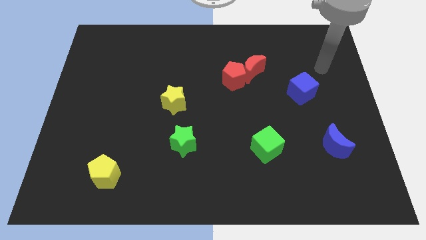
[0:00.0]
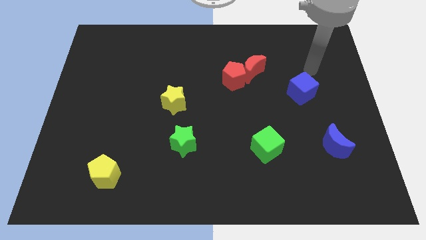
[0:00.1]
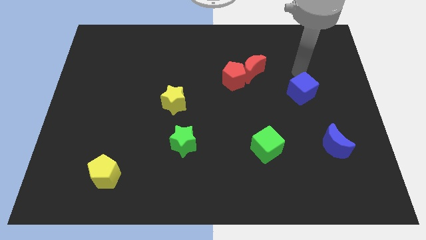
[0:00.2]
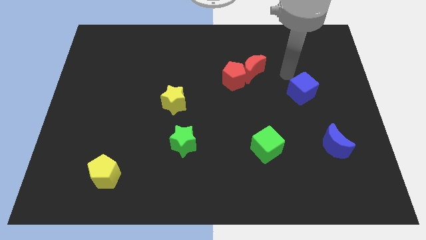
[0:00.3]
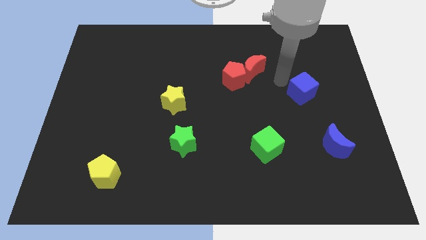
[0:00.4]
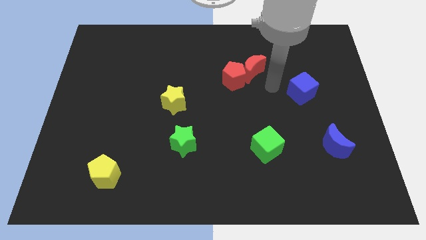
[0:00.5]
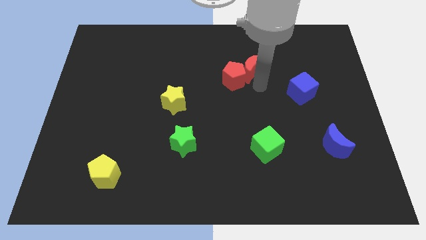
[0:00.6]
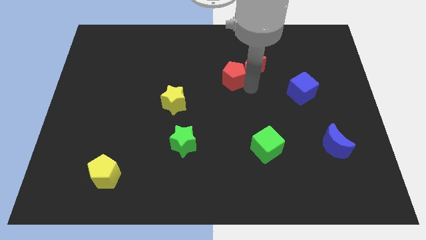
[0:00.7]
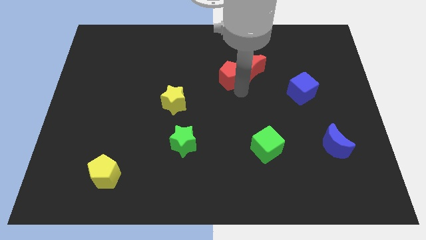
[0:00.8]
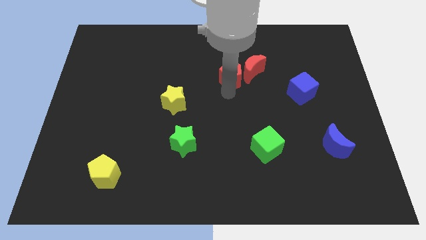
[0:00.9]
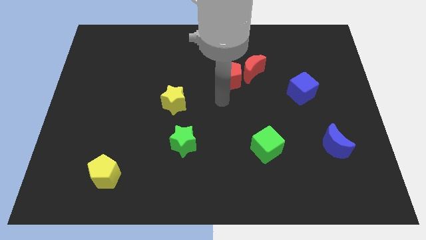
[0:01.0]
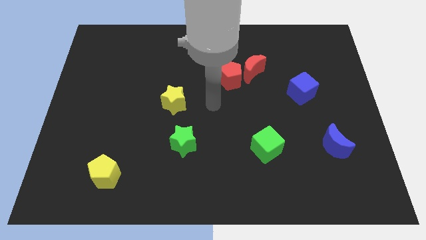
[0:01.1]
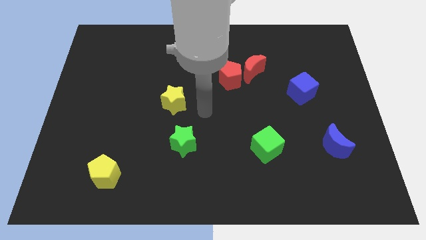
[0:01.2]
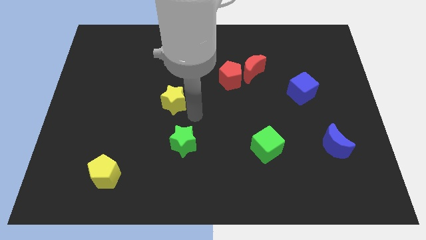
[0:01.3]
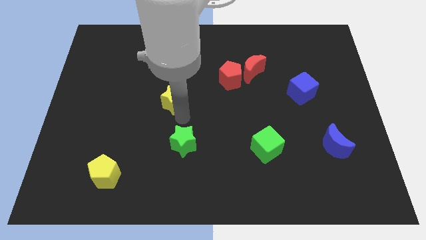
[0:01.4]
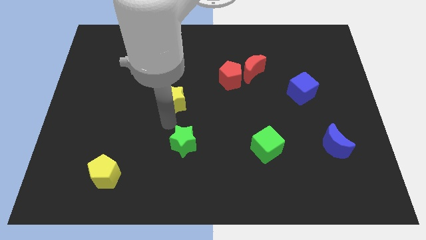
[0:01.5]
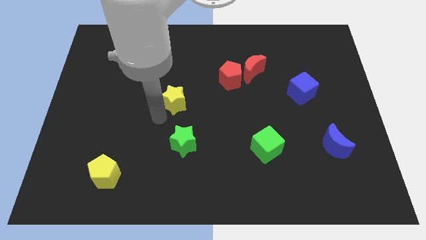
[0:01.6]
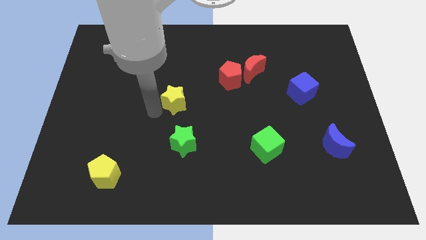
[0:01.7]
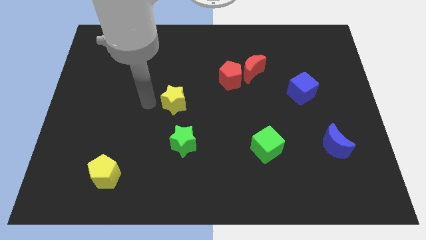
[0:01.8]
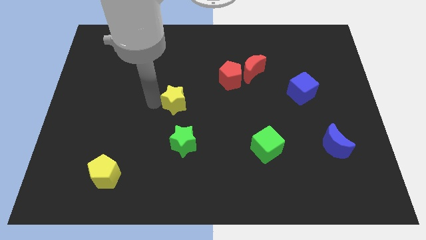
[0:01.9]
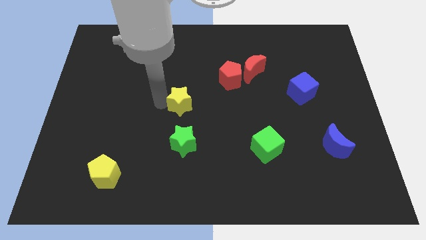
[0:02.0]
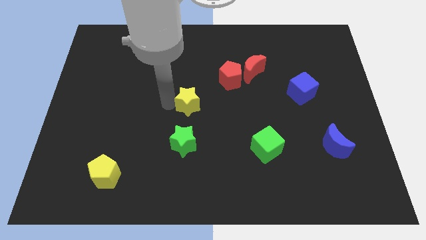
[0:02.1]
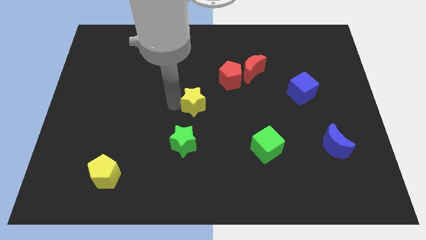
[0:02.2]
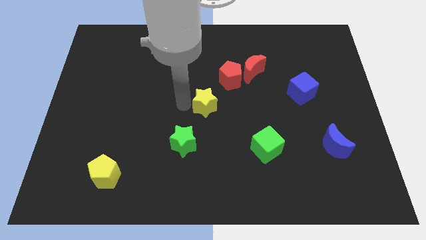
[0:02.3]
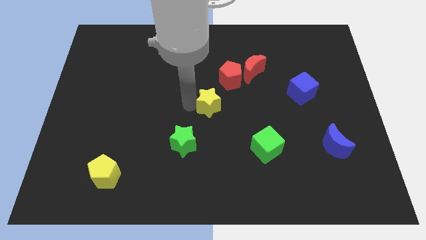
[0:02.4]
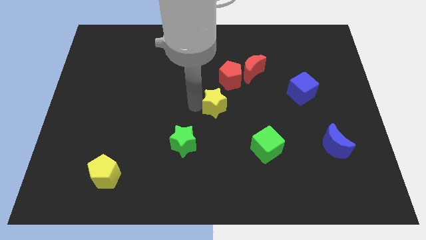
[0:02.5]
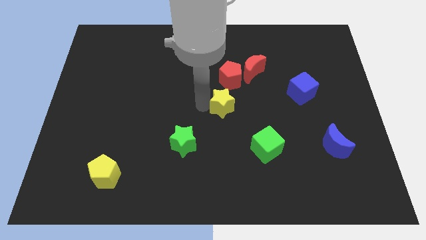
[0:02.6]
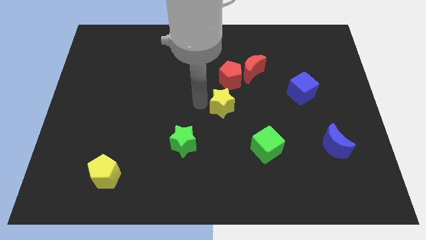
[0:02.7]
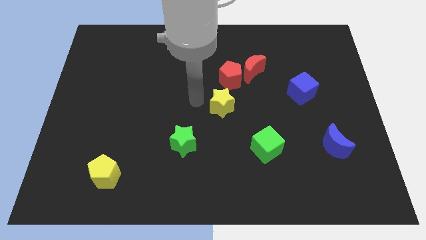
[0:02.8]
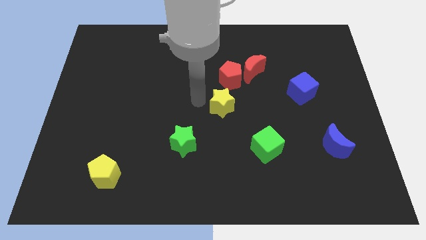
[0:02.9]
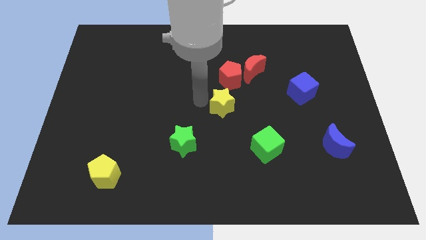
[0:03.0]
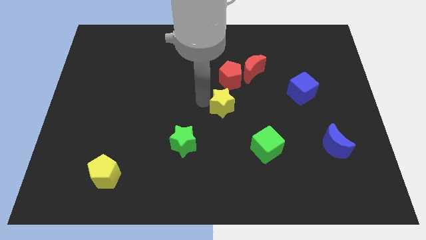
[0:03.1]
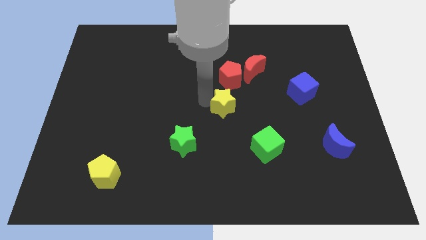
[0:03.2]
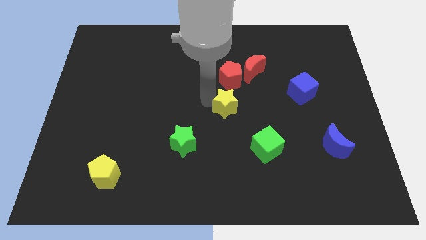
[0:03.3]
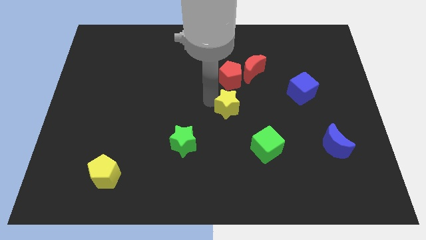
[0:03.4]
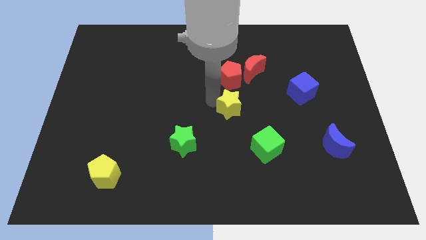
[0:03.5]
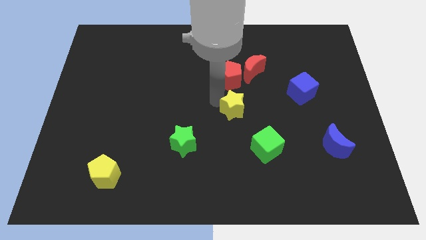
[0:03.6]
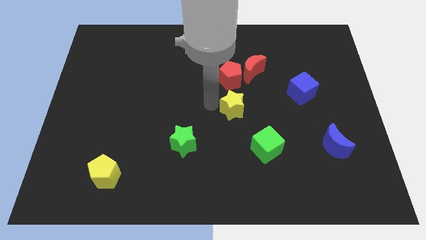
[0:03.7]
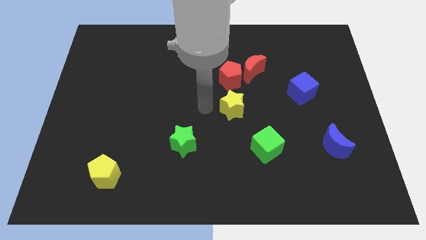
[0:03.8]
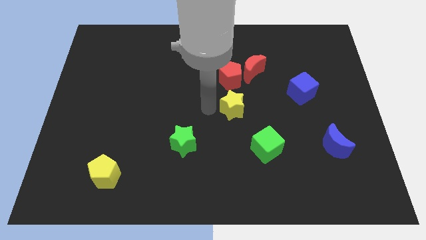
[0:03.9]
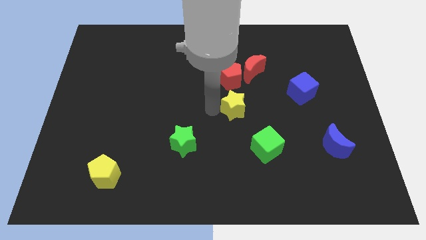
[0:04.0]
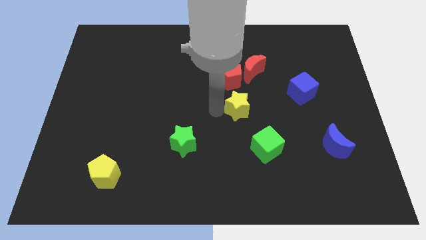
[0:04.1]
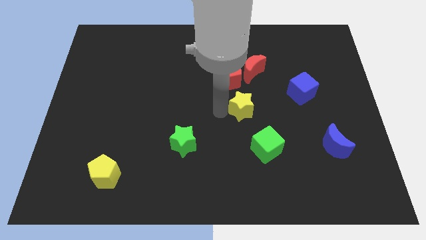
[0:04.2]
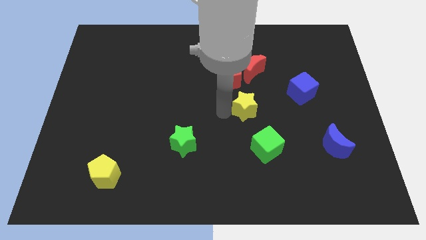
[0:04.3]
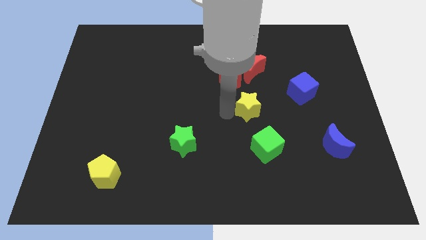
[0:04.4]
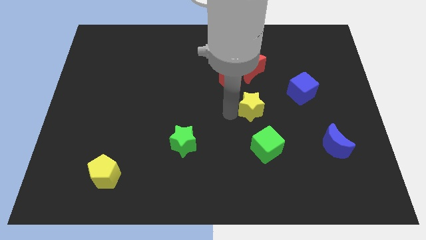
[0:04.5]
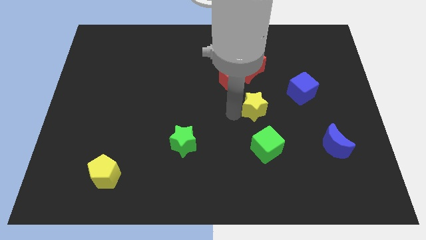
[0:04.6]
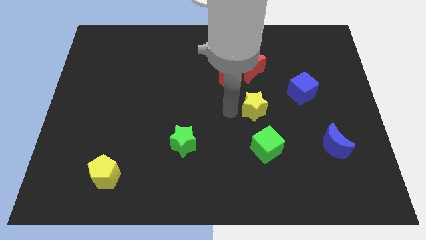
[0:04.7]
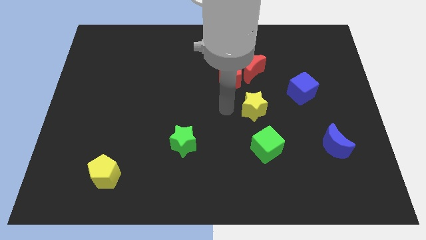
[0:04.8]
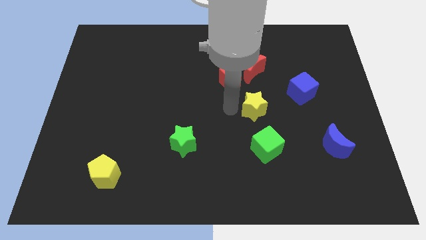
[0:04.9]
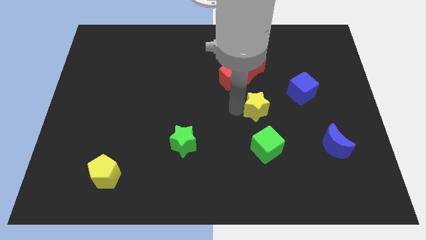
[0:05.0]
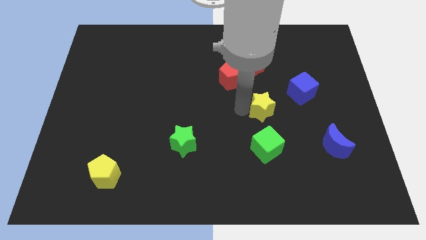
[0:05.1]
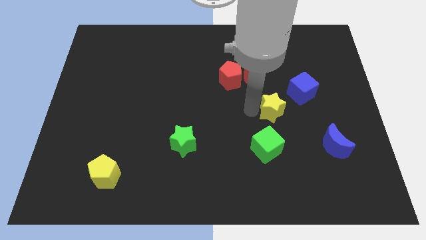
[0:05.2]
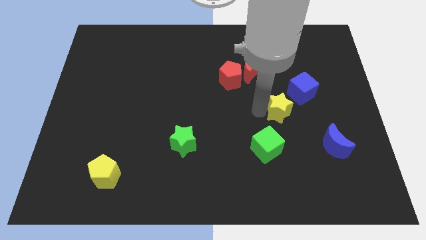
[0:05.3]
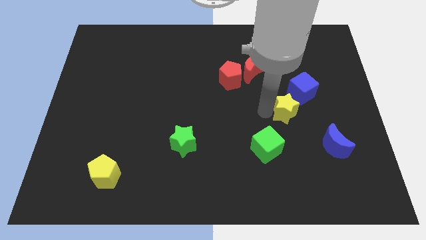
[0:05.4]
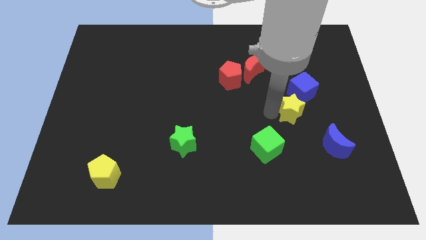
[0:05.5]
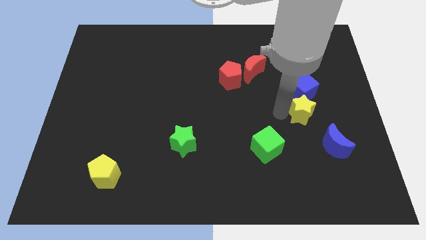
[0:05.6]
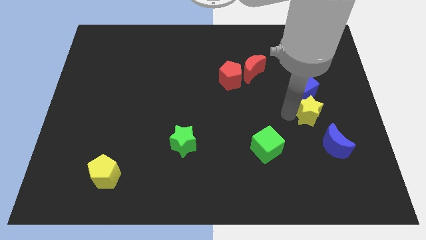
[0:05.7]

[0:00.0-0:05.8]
put the yellow star to the top of the blue moon

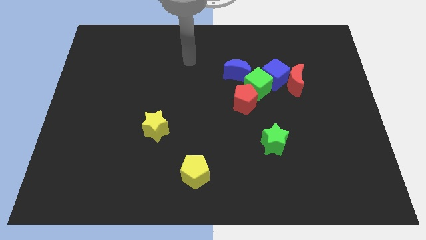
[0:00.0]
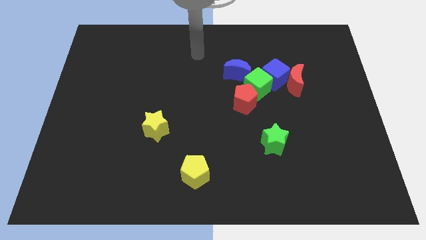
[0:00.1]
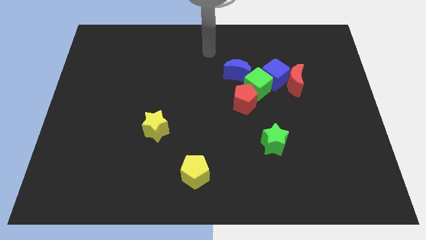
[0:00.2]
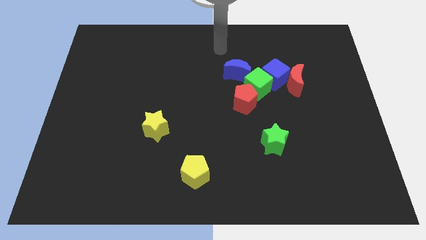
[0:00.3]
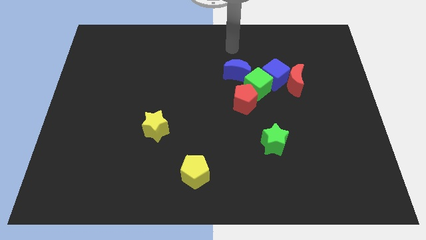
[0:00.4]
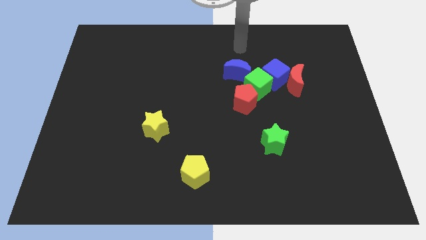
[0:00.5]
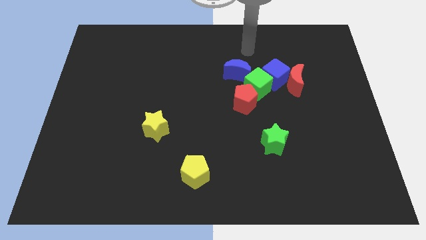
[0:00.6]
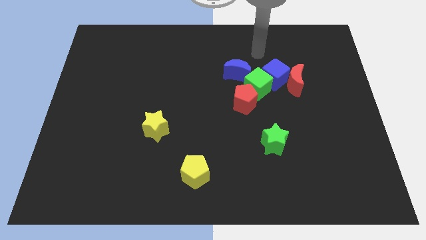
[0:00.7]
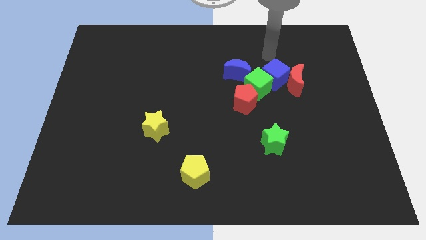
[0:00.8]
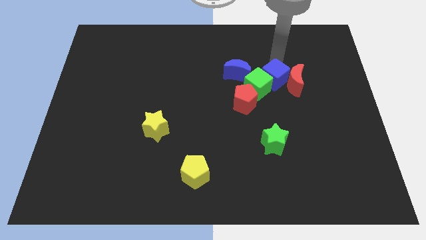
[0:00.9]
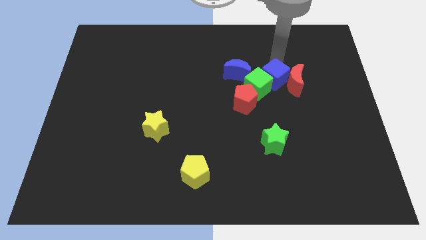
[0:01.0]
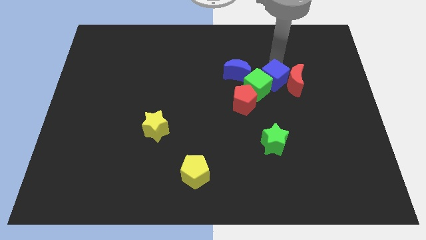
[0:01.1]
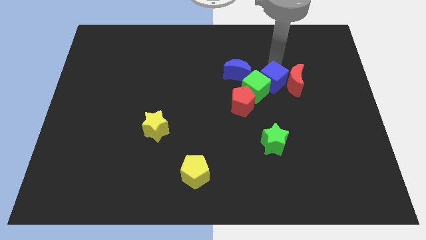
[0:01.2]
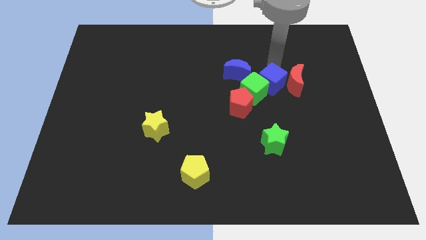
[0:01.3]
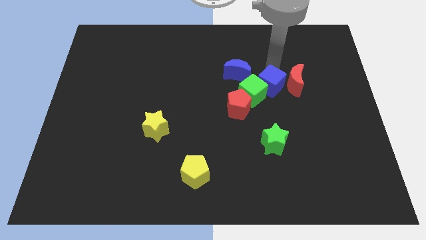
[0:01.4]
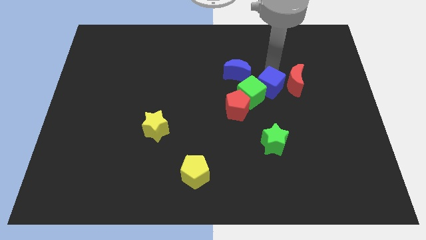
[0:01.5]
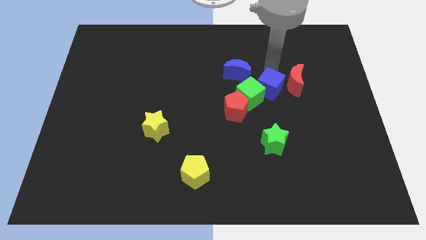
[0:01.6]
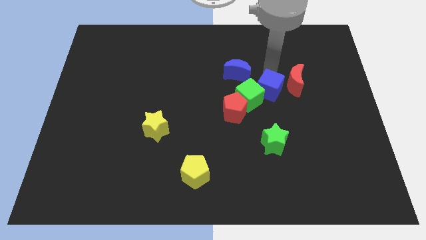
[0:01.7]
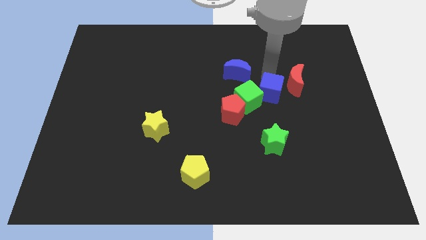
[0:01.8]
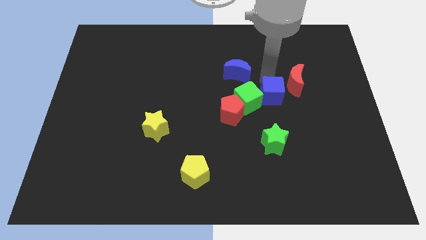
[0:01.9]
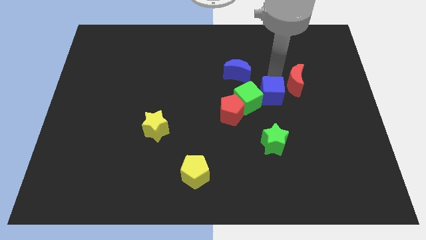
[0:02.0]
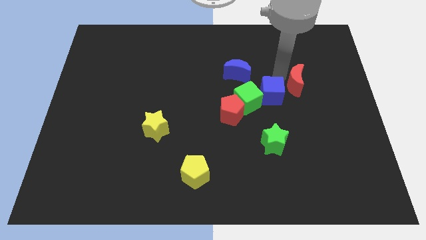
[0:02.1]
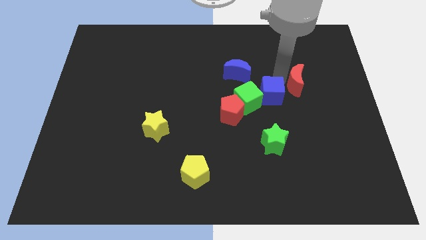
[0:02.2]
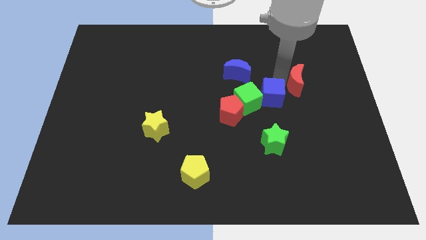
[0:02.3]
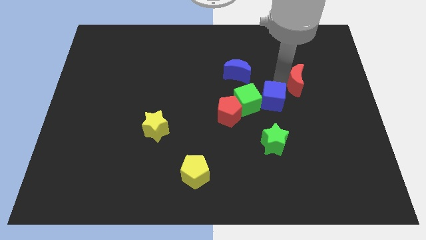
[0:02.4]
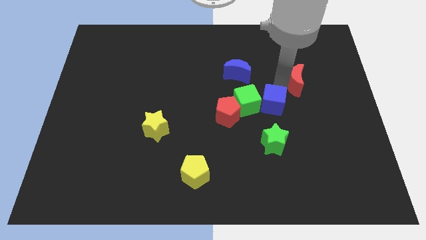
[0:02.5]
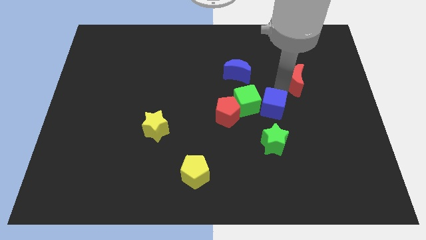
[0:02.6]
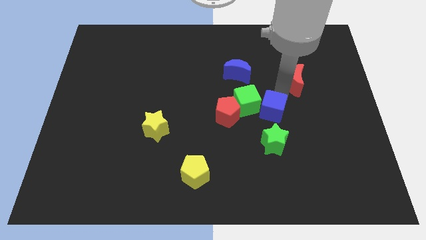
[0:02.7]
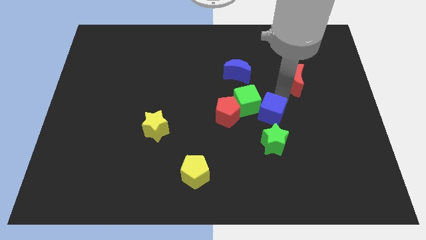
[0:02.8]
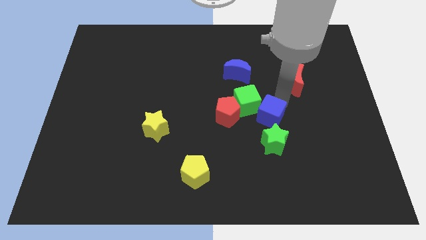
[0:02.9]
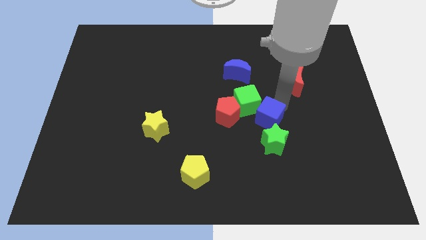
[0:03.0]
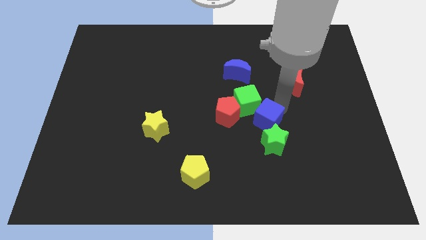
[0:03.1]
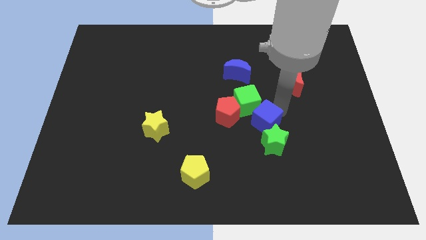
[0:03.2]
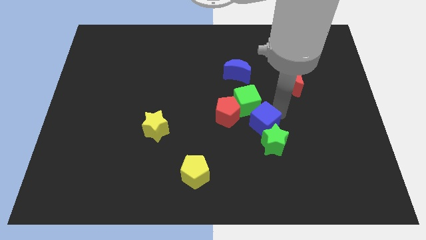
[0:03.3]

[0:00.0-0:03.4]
move the blue cube to the bottom right of the red pentagon
